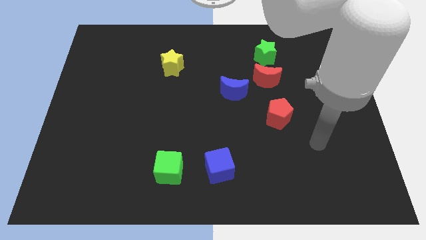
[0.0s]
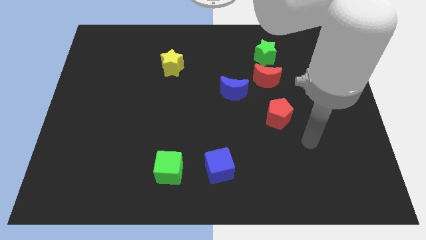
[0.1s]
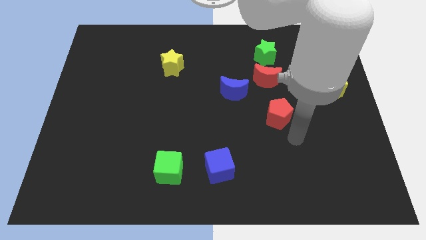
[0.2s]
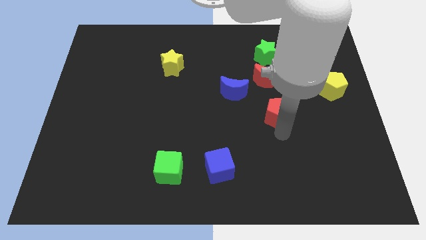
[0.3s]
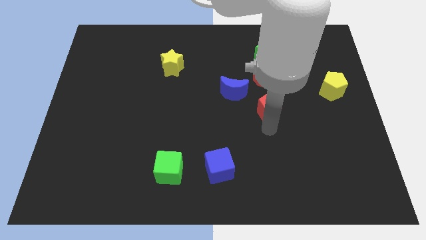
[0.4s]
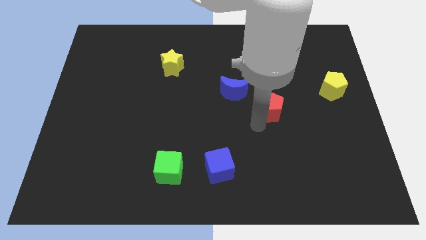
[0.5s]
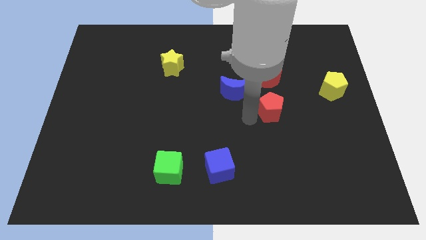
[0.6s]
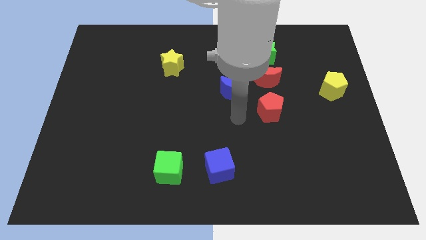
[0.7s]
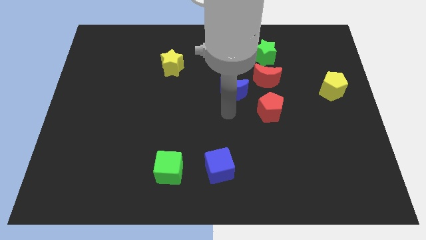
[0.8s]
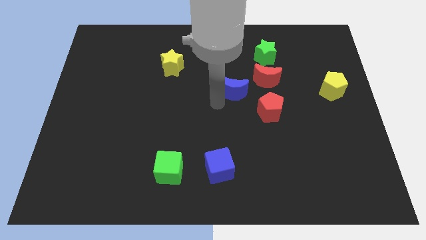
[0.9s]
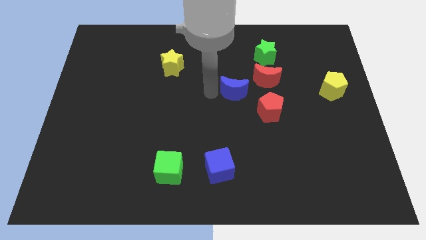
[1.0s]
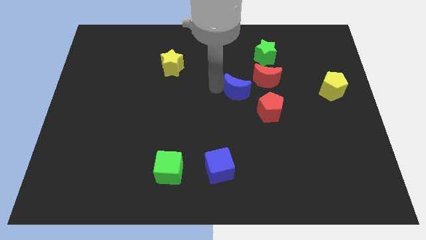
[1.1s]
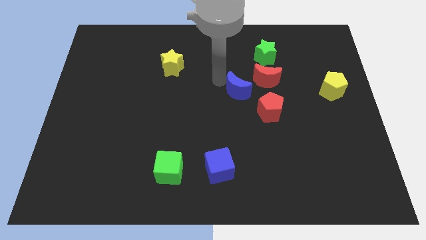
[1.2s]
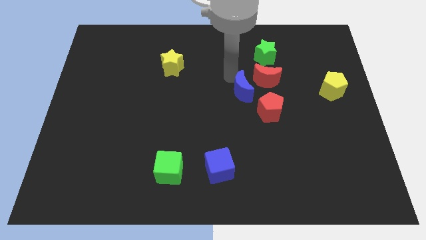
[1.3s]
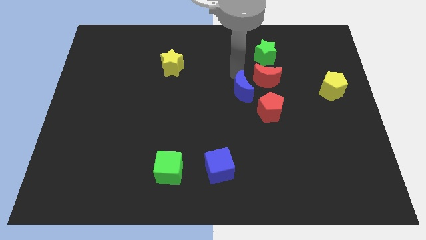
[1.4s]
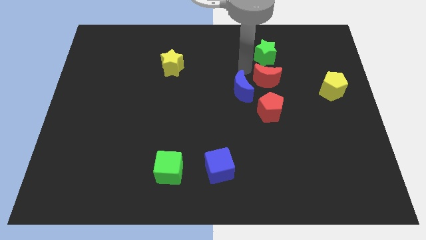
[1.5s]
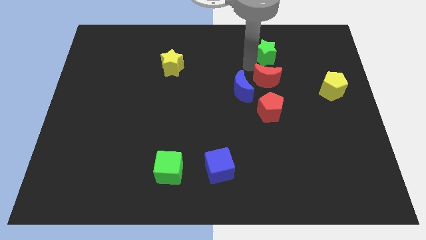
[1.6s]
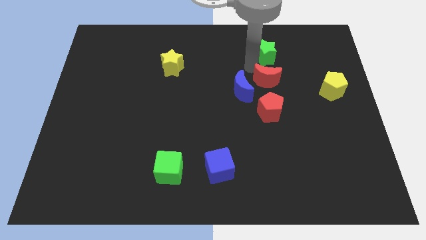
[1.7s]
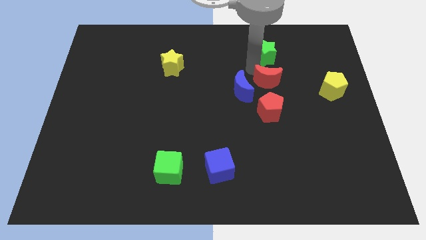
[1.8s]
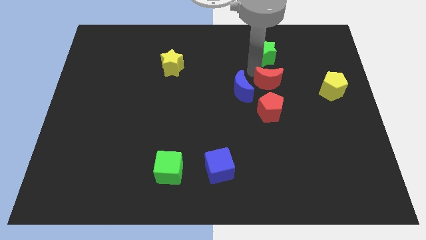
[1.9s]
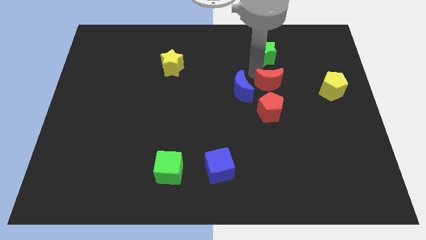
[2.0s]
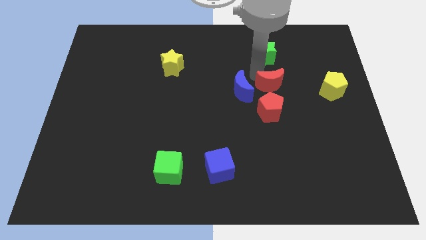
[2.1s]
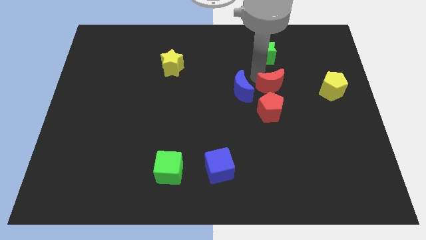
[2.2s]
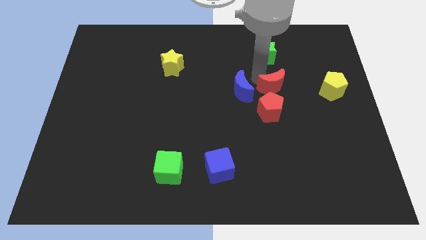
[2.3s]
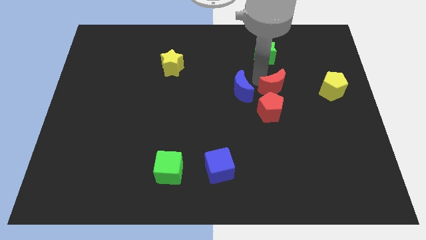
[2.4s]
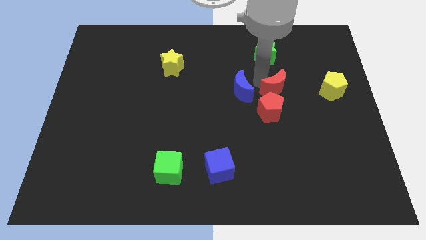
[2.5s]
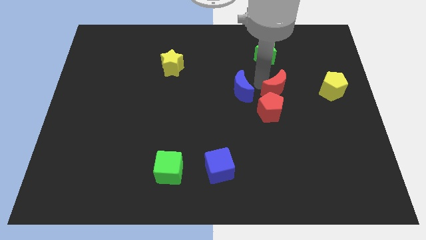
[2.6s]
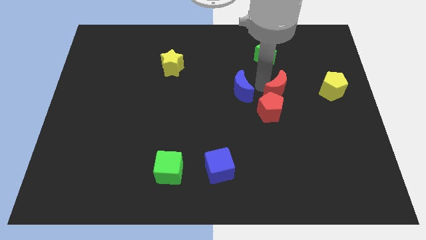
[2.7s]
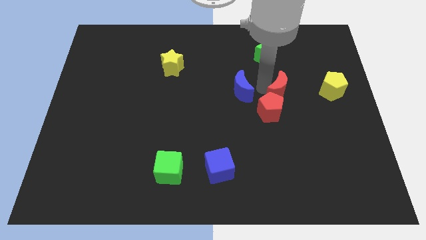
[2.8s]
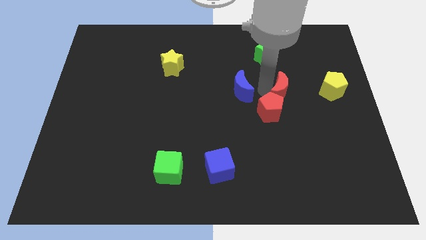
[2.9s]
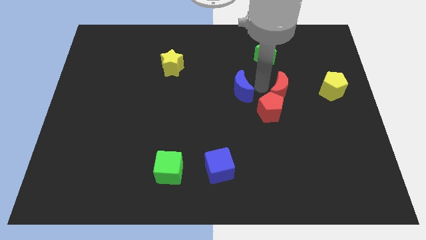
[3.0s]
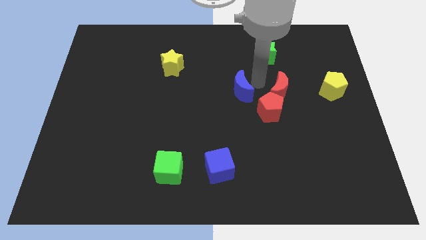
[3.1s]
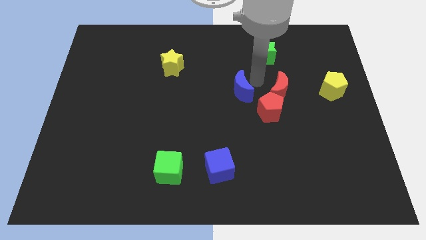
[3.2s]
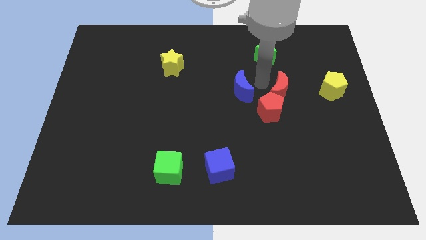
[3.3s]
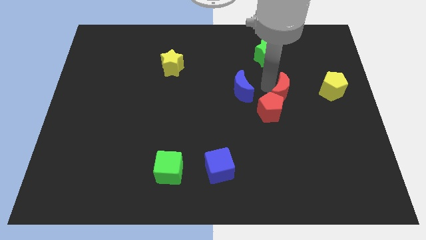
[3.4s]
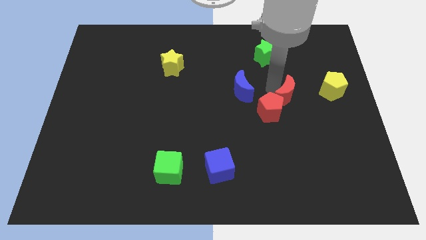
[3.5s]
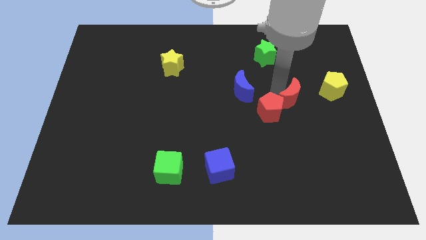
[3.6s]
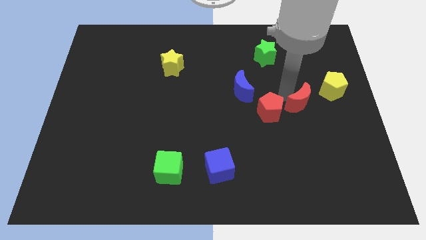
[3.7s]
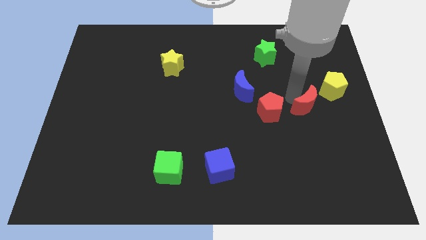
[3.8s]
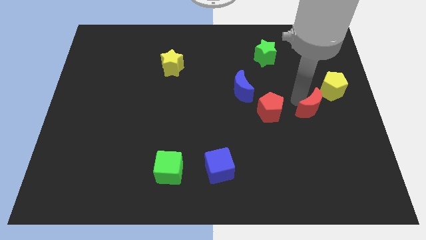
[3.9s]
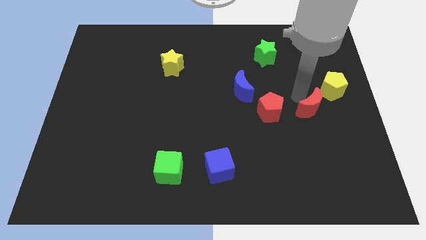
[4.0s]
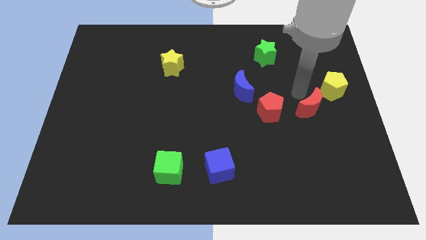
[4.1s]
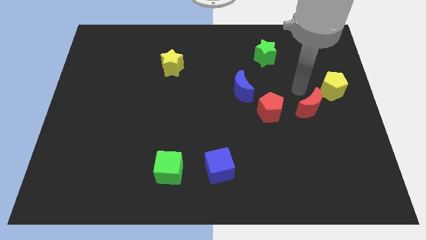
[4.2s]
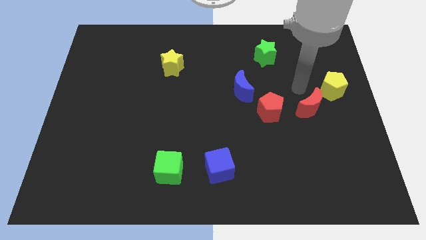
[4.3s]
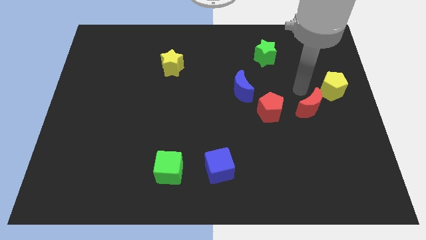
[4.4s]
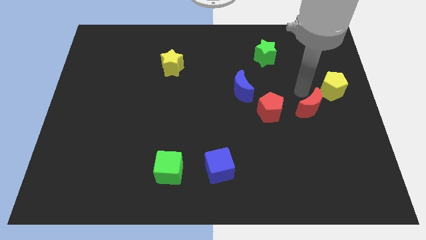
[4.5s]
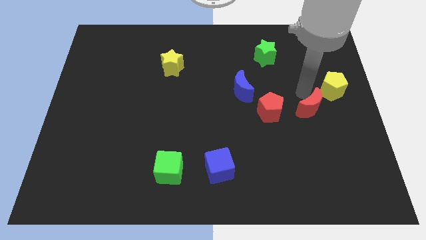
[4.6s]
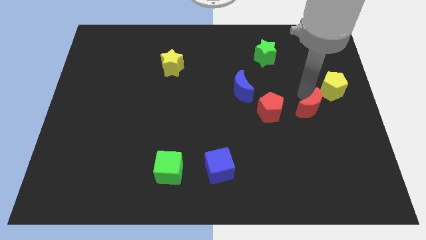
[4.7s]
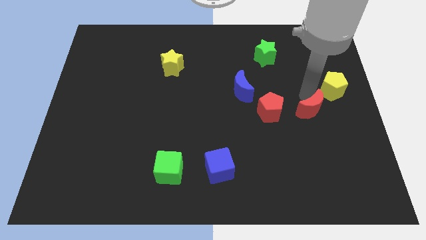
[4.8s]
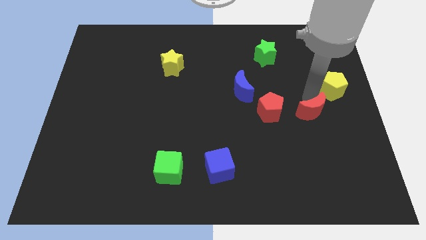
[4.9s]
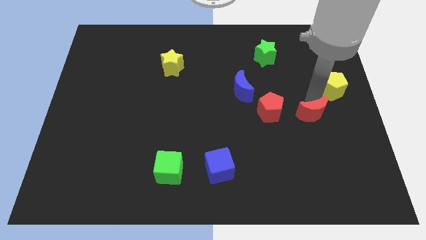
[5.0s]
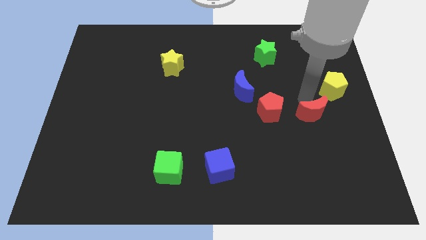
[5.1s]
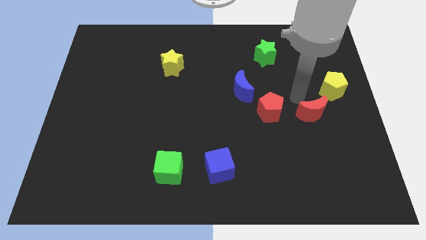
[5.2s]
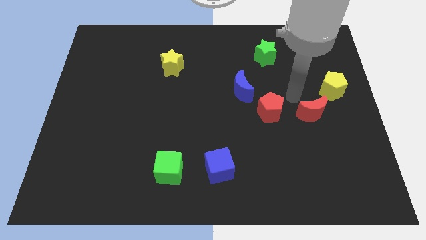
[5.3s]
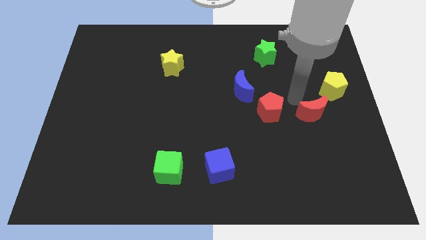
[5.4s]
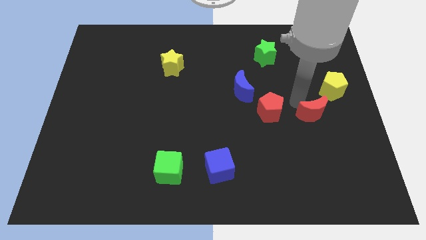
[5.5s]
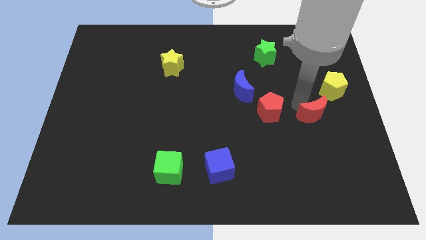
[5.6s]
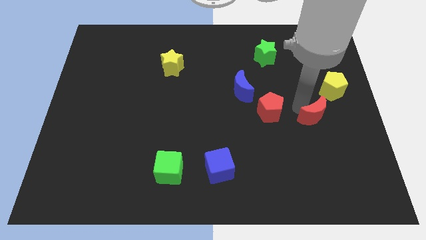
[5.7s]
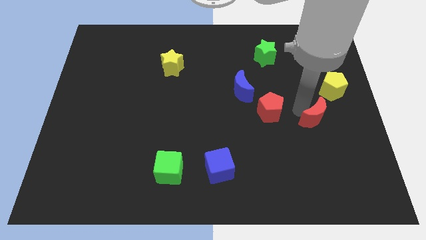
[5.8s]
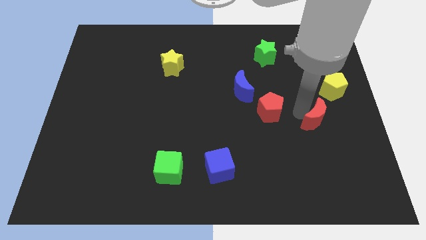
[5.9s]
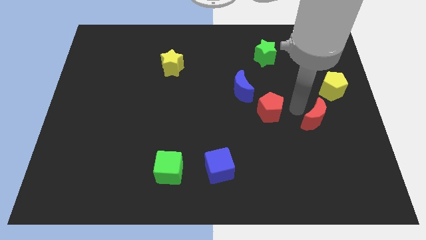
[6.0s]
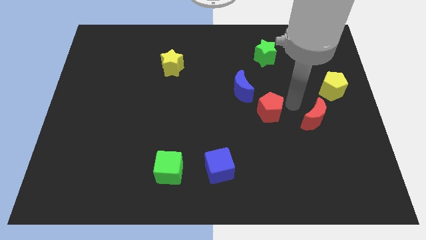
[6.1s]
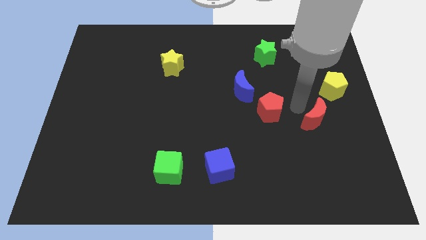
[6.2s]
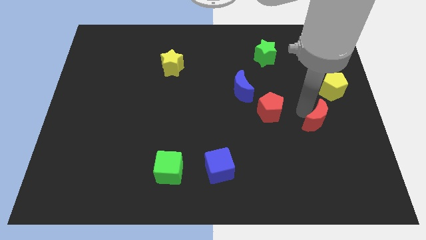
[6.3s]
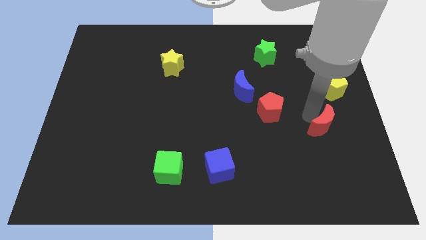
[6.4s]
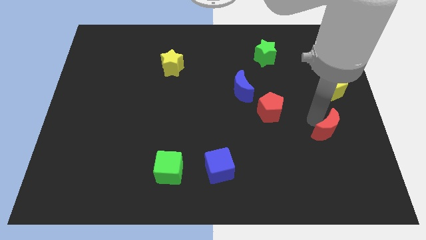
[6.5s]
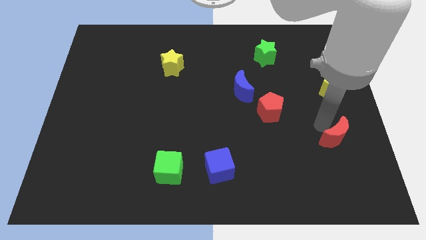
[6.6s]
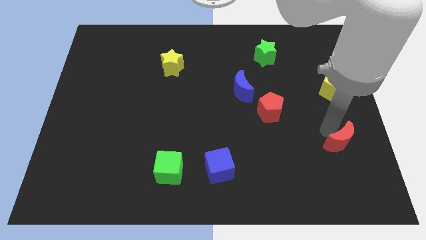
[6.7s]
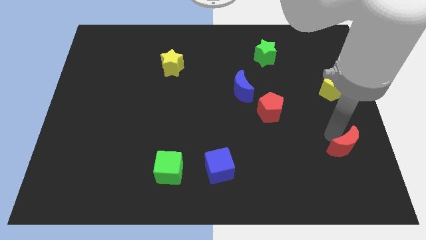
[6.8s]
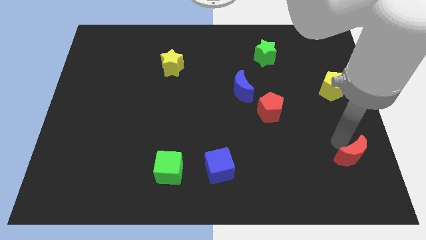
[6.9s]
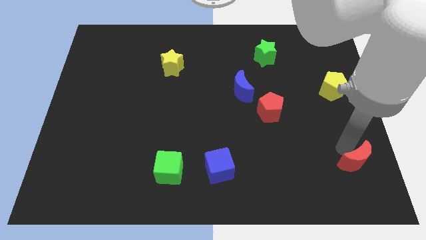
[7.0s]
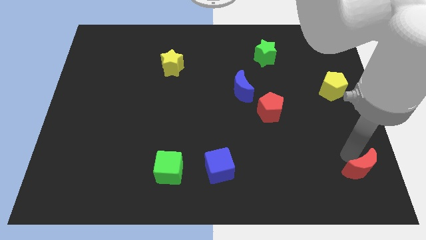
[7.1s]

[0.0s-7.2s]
slide the red moon to the bottom right
